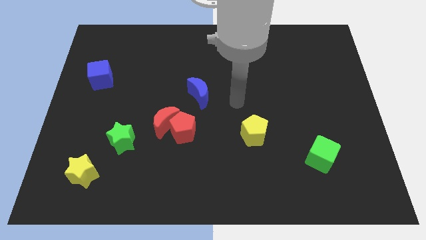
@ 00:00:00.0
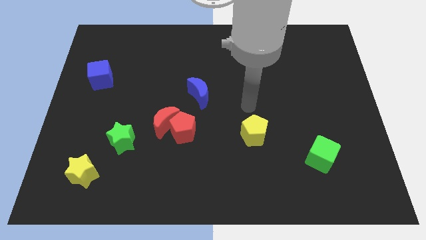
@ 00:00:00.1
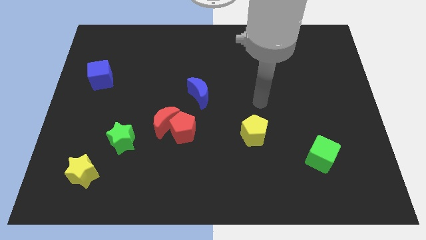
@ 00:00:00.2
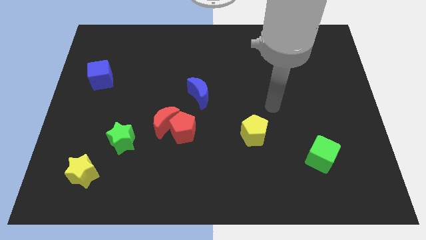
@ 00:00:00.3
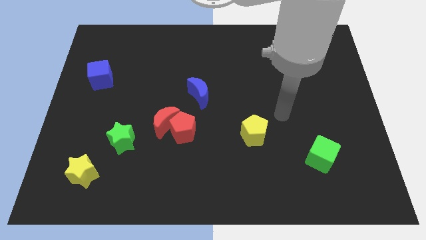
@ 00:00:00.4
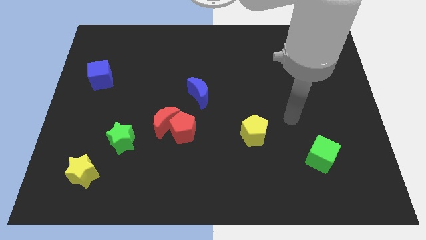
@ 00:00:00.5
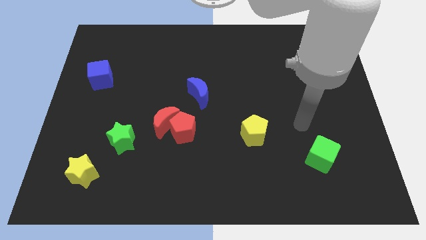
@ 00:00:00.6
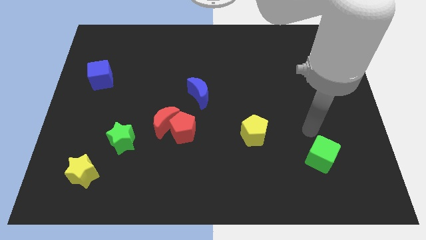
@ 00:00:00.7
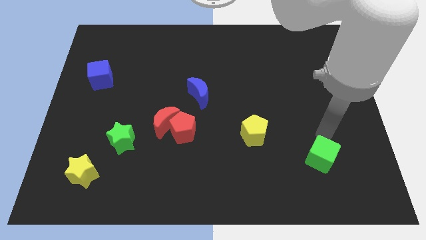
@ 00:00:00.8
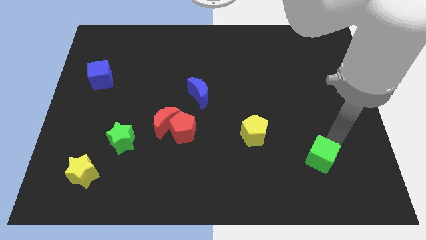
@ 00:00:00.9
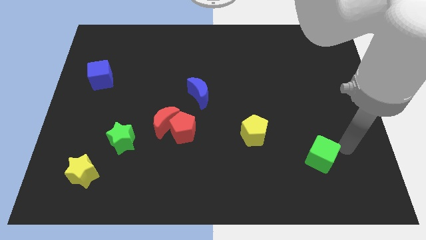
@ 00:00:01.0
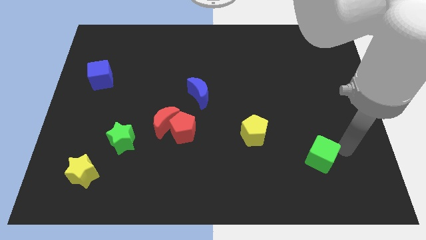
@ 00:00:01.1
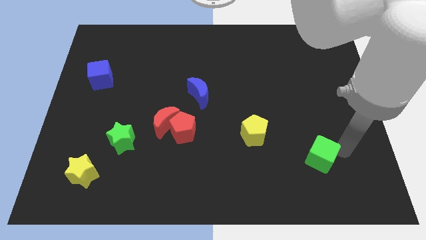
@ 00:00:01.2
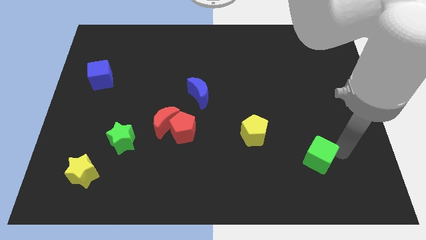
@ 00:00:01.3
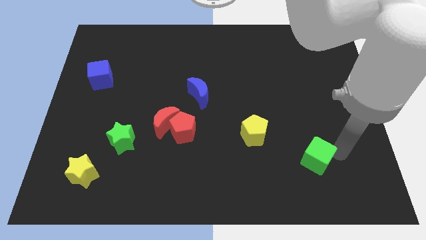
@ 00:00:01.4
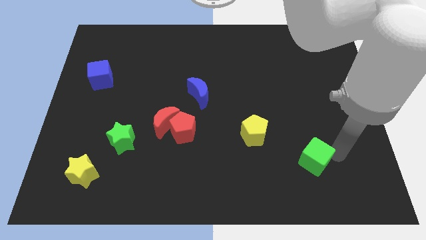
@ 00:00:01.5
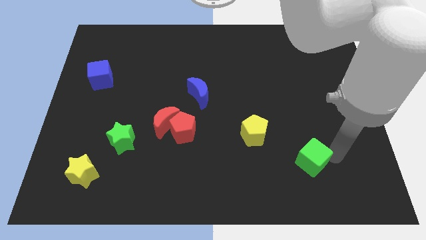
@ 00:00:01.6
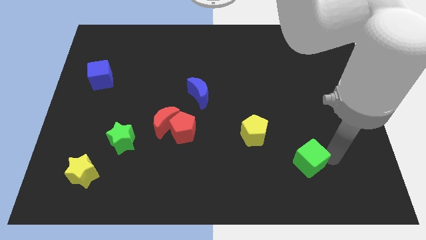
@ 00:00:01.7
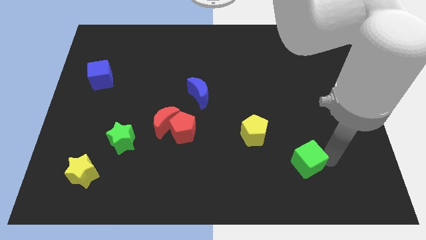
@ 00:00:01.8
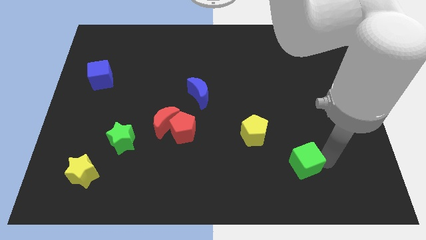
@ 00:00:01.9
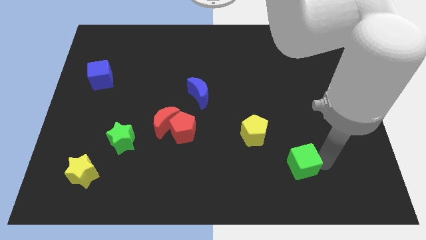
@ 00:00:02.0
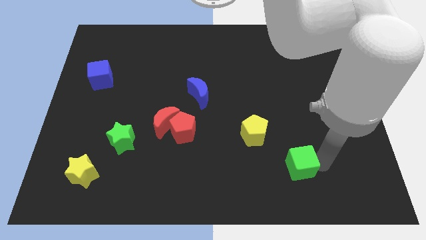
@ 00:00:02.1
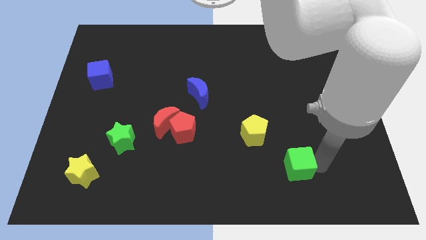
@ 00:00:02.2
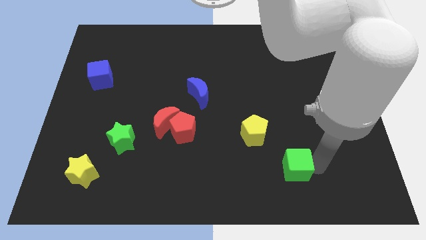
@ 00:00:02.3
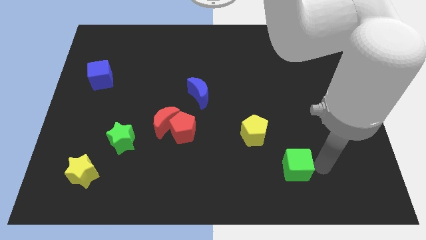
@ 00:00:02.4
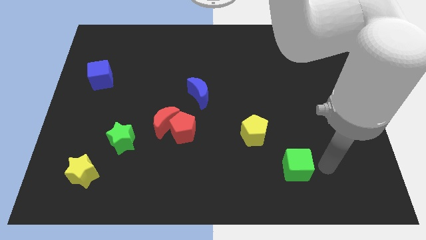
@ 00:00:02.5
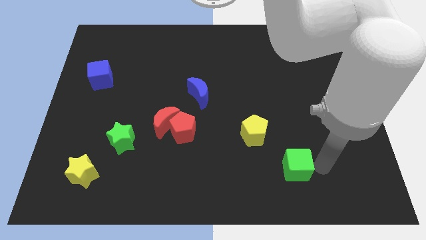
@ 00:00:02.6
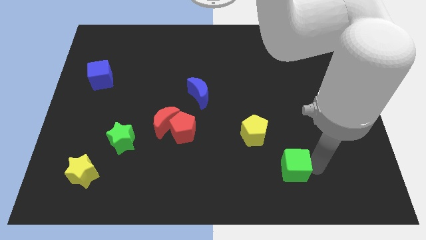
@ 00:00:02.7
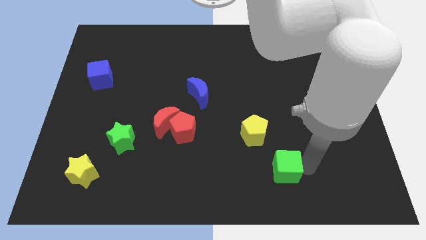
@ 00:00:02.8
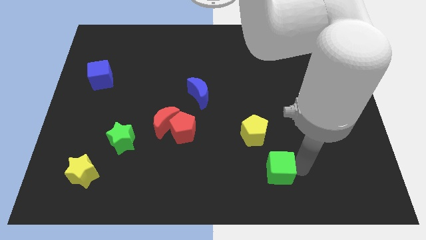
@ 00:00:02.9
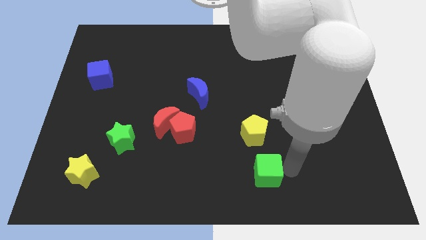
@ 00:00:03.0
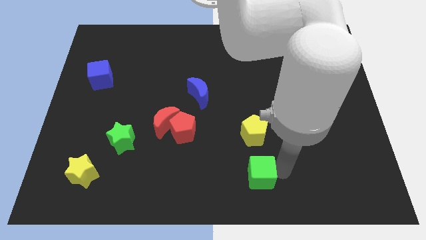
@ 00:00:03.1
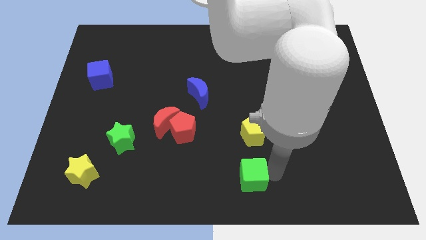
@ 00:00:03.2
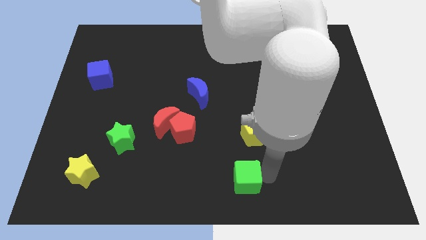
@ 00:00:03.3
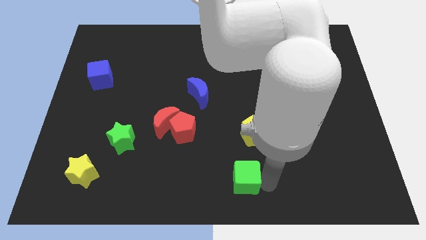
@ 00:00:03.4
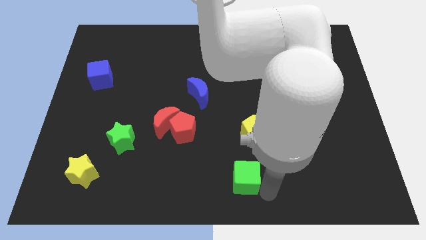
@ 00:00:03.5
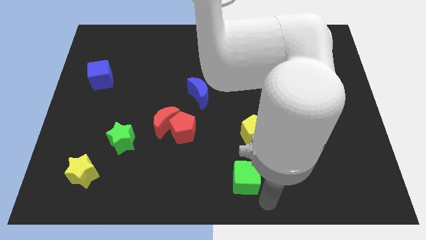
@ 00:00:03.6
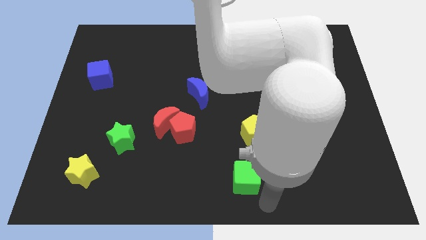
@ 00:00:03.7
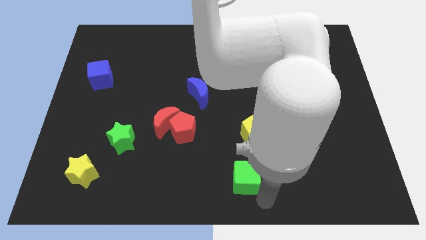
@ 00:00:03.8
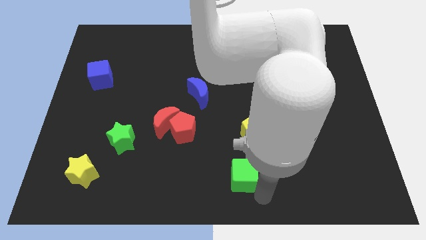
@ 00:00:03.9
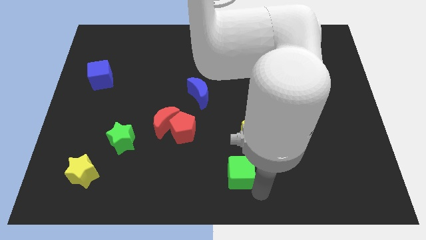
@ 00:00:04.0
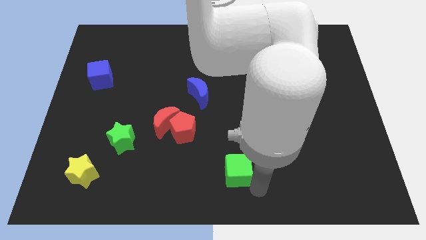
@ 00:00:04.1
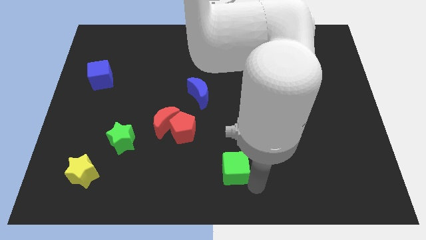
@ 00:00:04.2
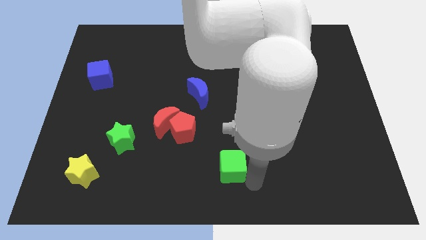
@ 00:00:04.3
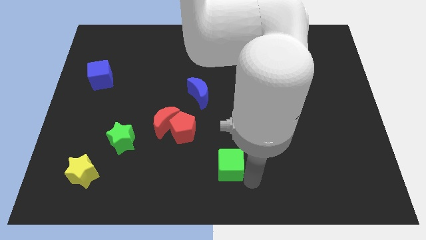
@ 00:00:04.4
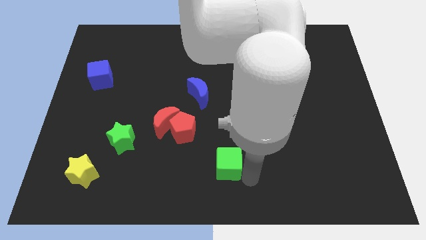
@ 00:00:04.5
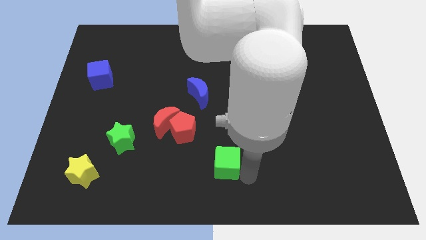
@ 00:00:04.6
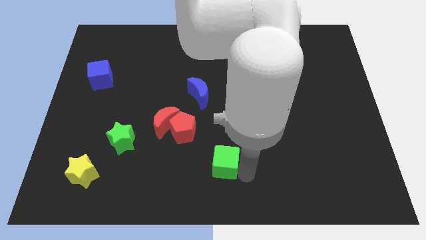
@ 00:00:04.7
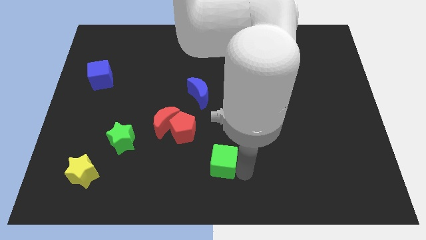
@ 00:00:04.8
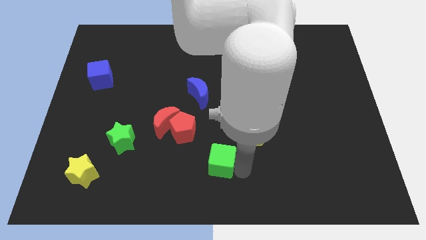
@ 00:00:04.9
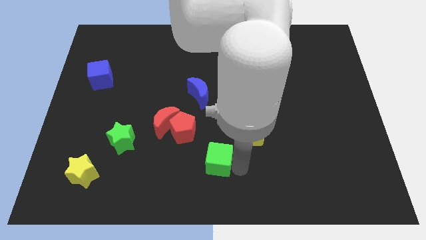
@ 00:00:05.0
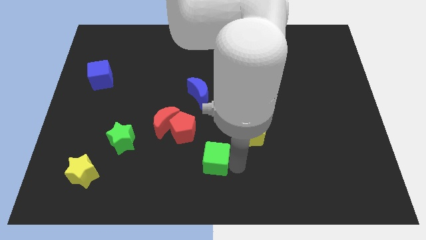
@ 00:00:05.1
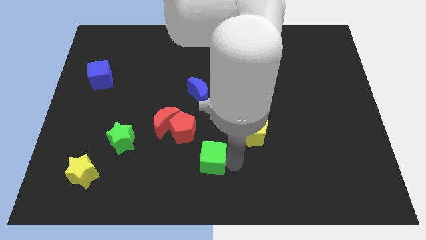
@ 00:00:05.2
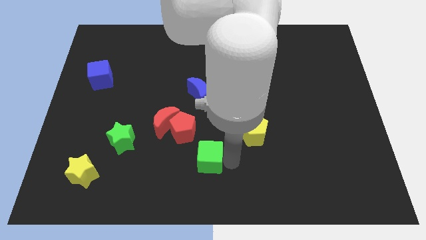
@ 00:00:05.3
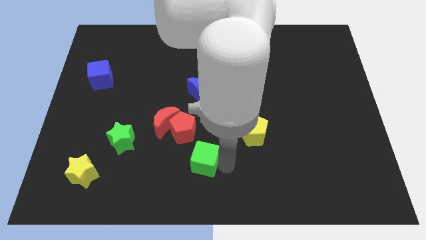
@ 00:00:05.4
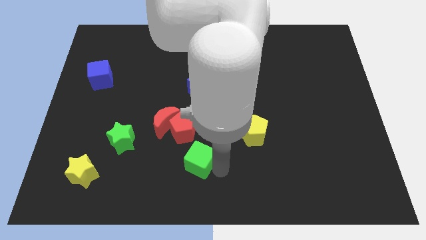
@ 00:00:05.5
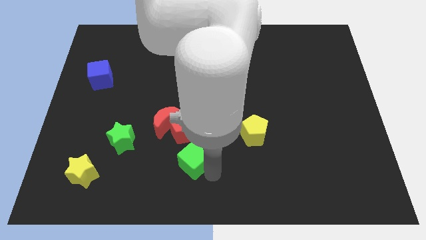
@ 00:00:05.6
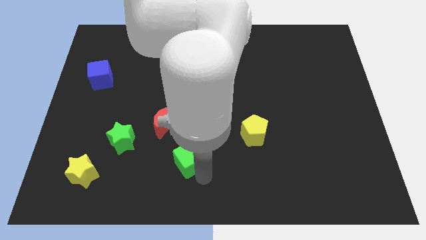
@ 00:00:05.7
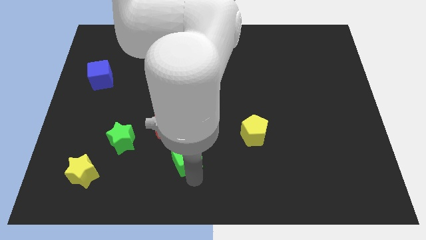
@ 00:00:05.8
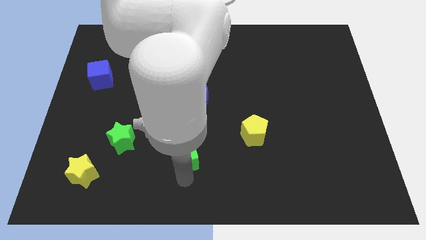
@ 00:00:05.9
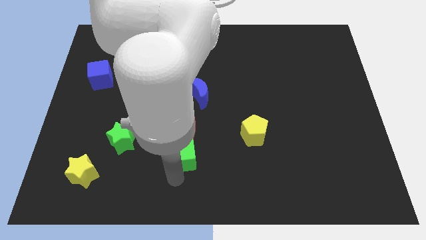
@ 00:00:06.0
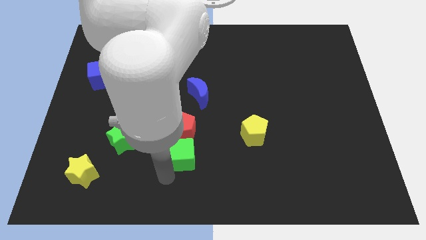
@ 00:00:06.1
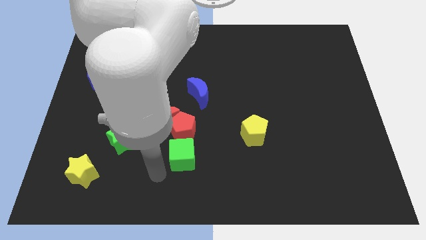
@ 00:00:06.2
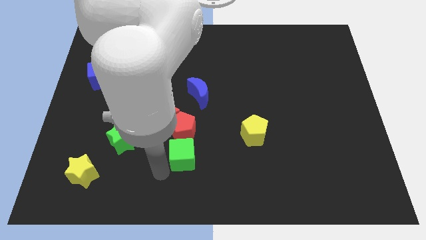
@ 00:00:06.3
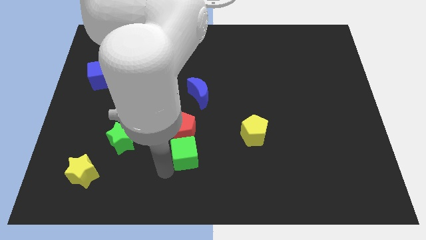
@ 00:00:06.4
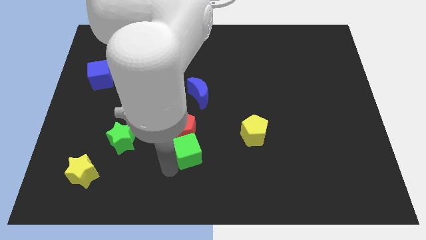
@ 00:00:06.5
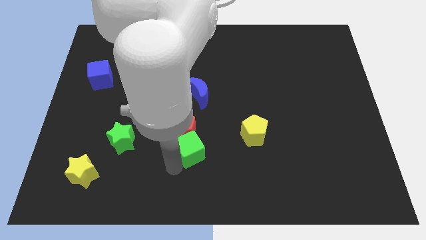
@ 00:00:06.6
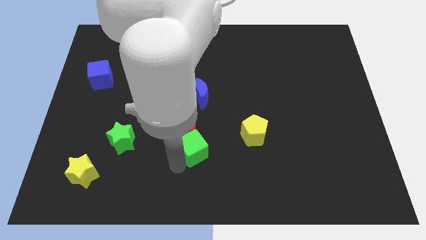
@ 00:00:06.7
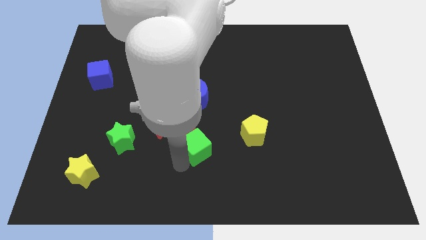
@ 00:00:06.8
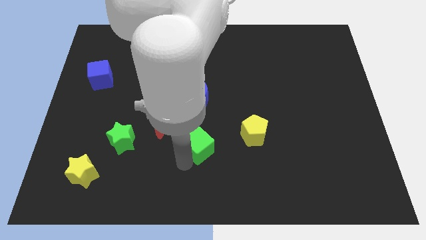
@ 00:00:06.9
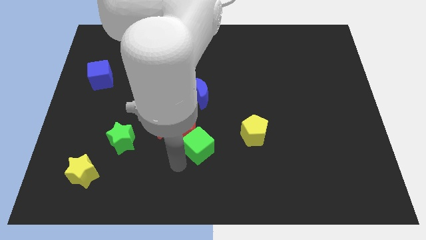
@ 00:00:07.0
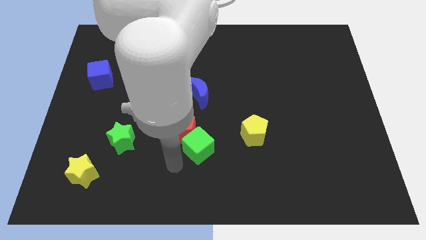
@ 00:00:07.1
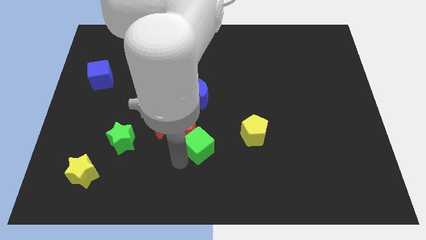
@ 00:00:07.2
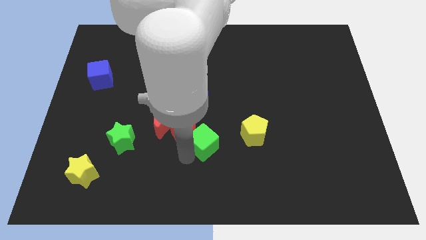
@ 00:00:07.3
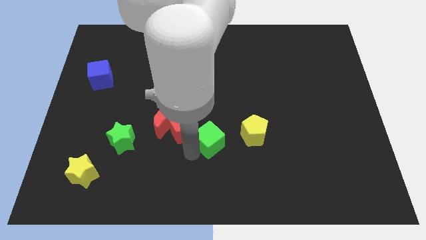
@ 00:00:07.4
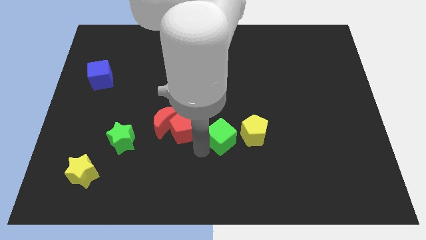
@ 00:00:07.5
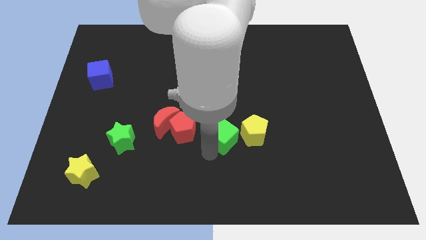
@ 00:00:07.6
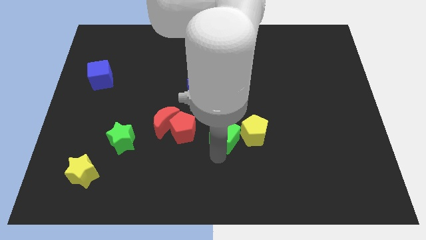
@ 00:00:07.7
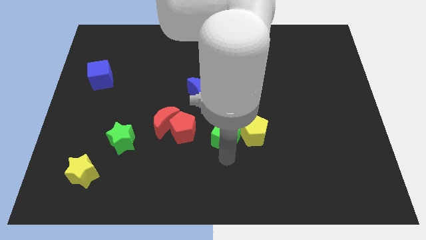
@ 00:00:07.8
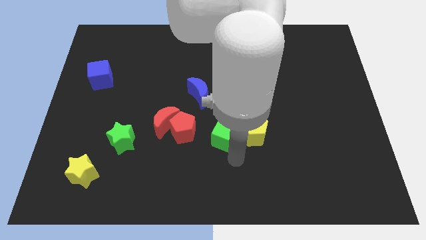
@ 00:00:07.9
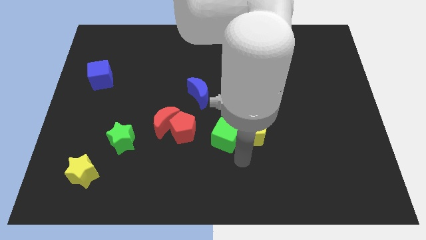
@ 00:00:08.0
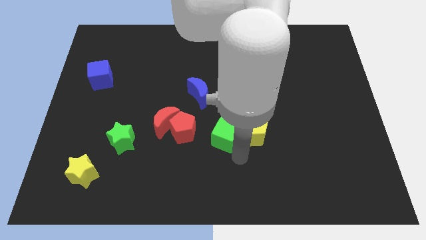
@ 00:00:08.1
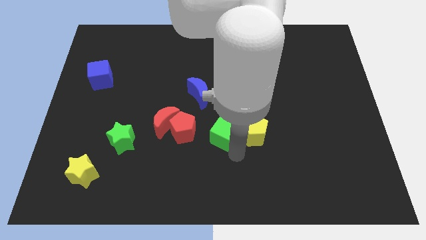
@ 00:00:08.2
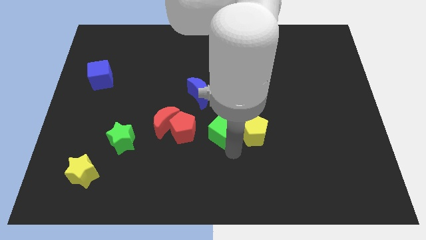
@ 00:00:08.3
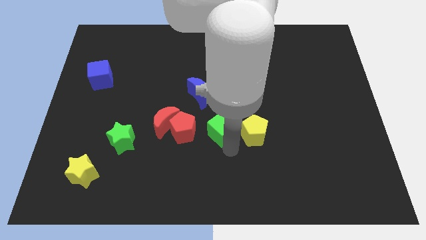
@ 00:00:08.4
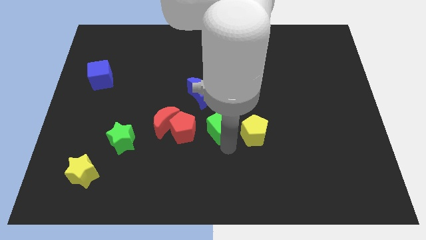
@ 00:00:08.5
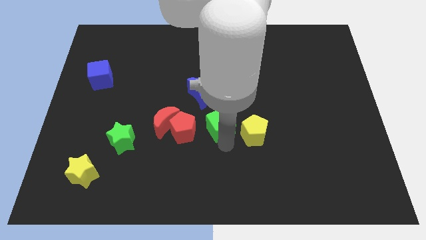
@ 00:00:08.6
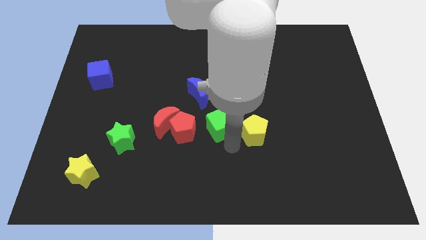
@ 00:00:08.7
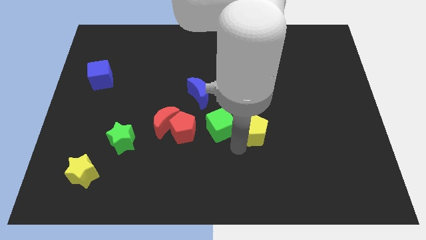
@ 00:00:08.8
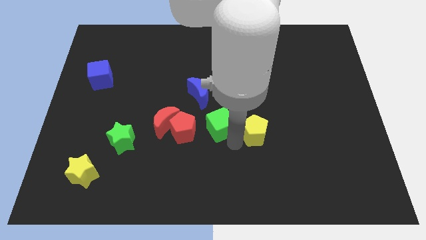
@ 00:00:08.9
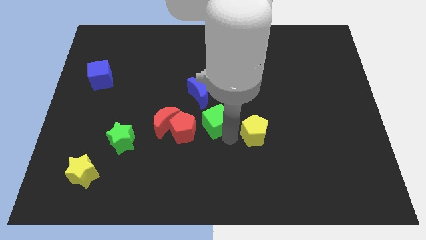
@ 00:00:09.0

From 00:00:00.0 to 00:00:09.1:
put the green cube diagonally up and to the right of the red pentagon
